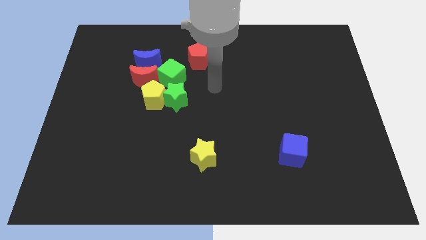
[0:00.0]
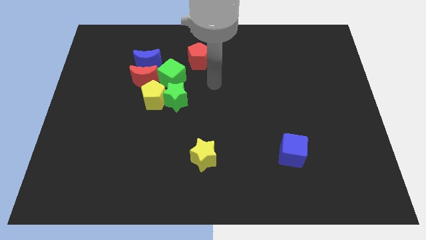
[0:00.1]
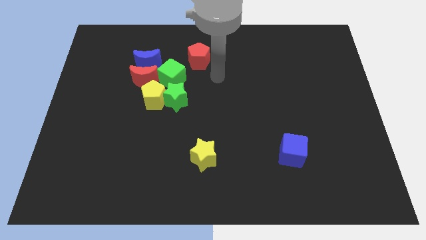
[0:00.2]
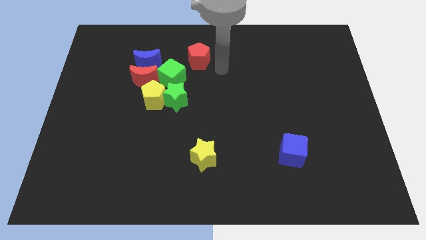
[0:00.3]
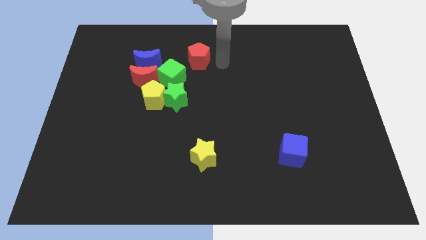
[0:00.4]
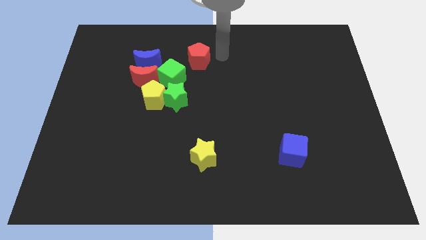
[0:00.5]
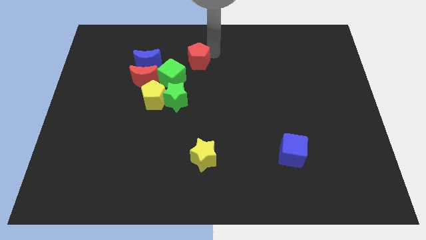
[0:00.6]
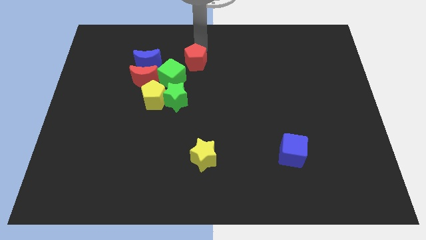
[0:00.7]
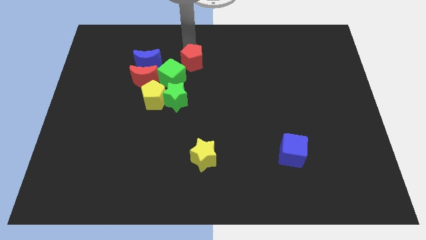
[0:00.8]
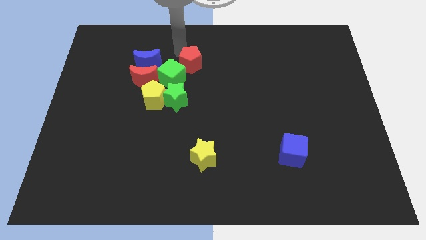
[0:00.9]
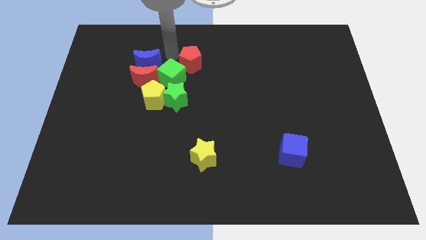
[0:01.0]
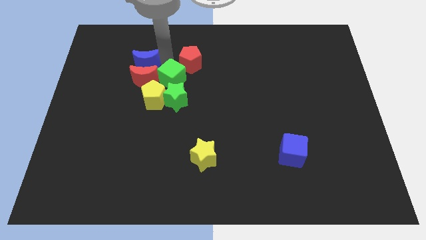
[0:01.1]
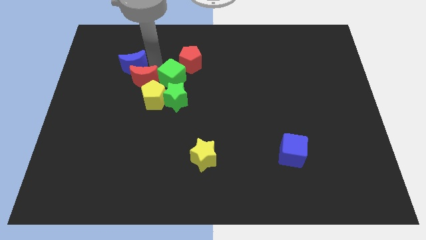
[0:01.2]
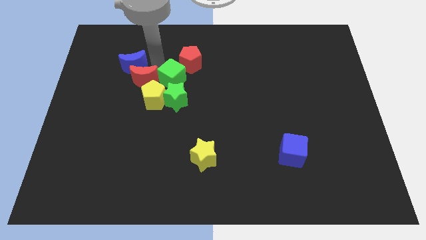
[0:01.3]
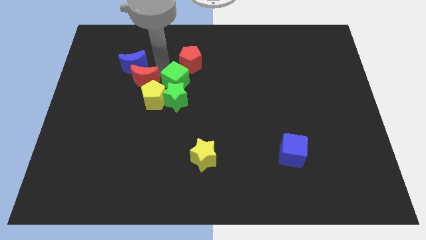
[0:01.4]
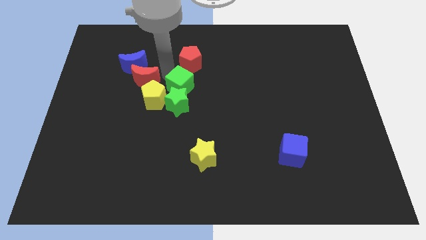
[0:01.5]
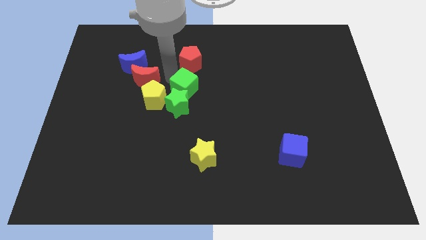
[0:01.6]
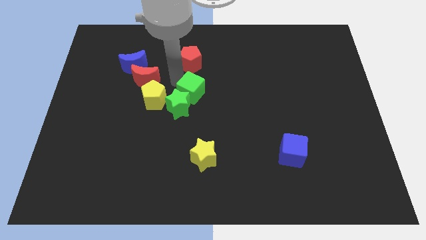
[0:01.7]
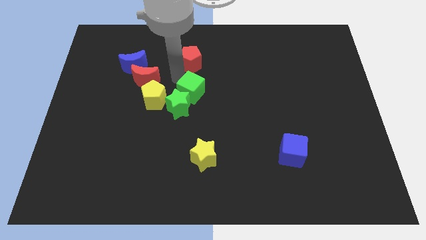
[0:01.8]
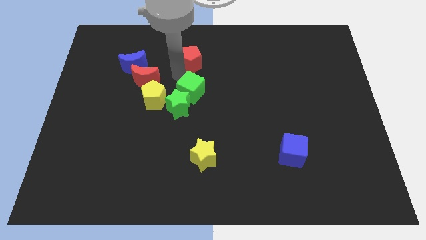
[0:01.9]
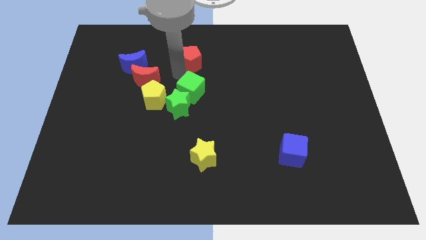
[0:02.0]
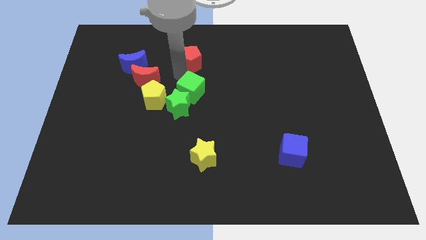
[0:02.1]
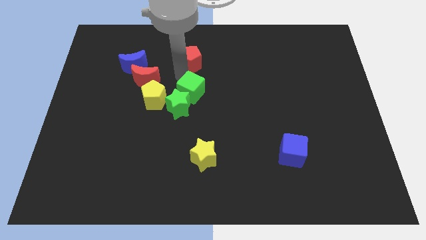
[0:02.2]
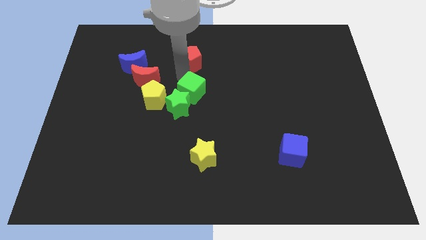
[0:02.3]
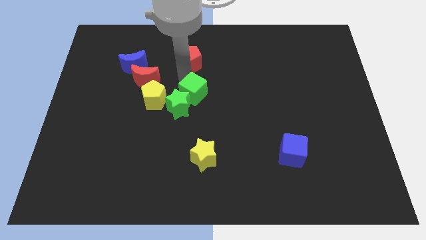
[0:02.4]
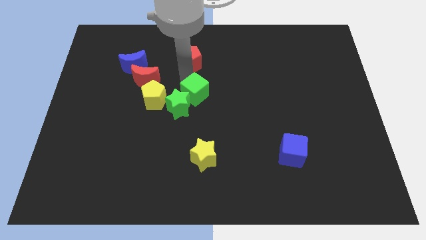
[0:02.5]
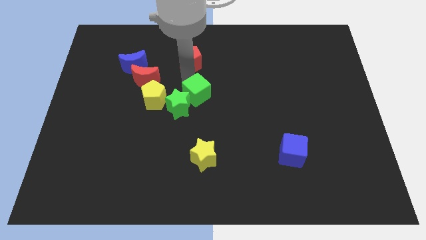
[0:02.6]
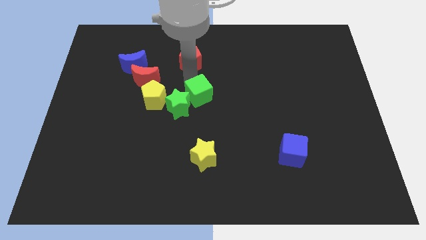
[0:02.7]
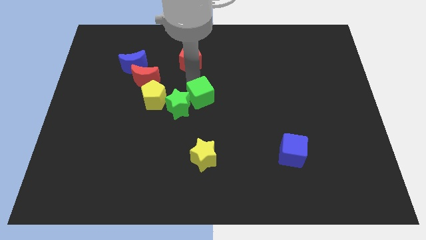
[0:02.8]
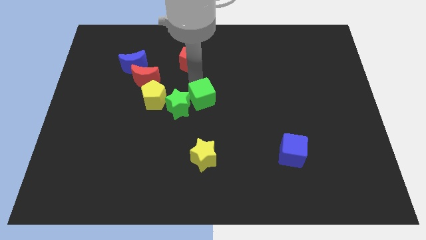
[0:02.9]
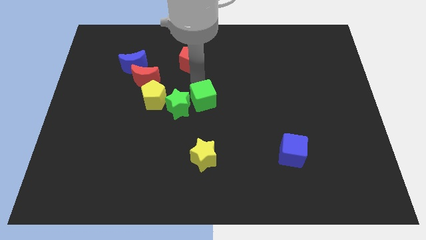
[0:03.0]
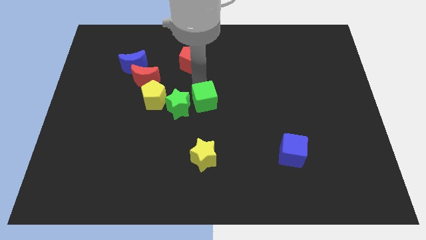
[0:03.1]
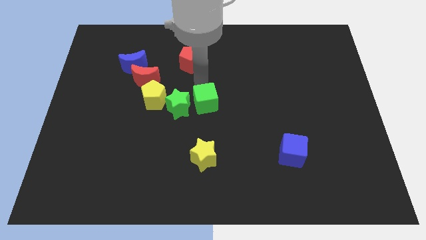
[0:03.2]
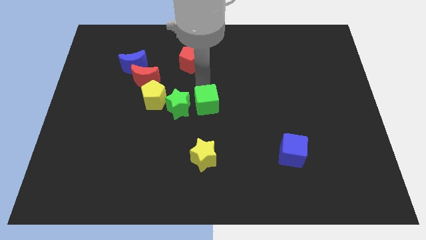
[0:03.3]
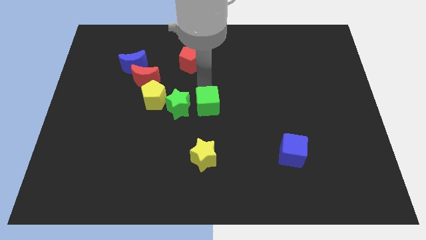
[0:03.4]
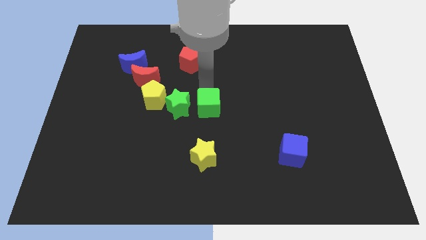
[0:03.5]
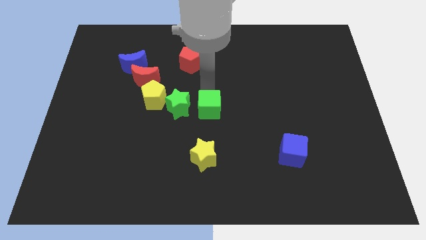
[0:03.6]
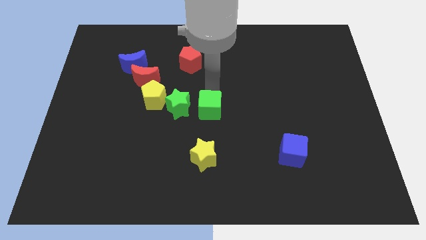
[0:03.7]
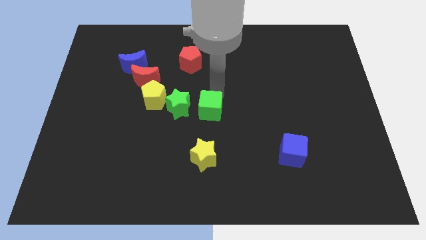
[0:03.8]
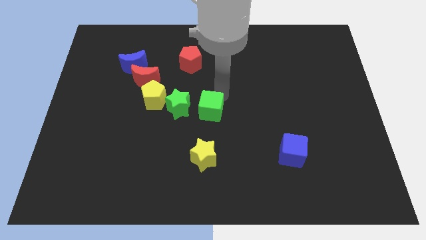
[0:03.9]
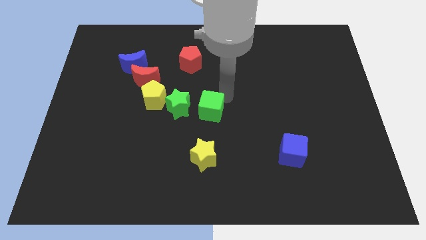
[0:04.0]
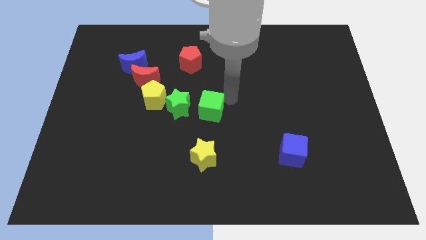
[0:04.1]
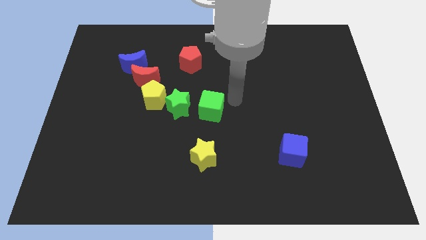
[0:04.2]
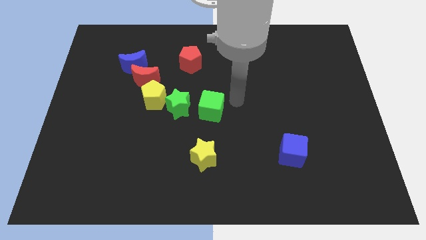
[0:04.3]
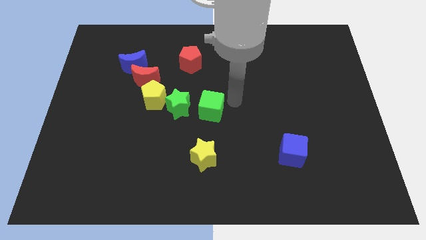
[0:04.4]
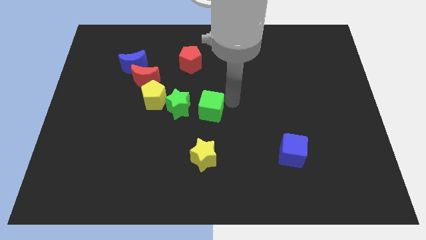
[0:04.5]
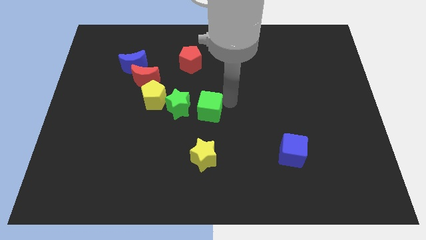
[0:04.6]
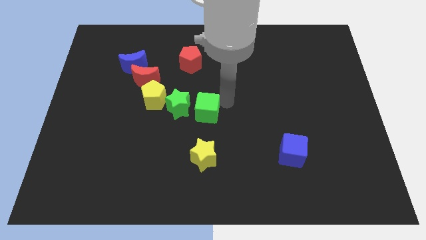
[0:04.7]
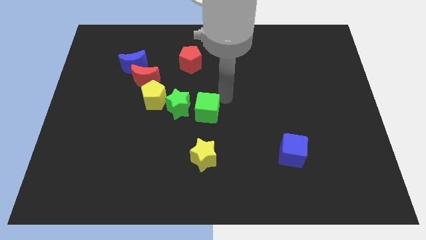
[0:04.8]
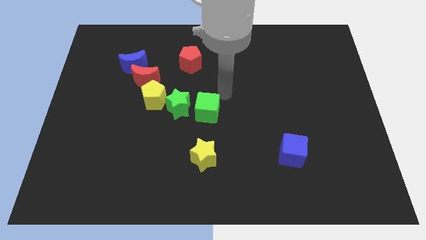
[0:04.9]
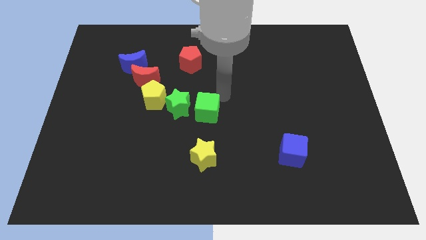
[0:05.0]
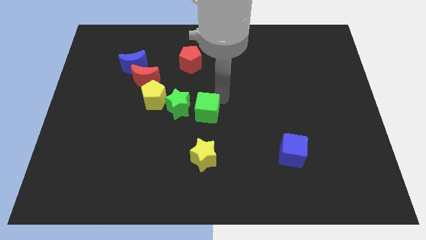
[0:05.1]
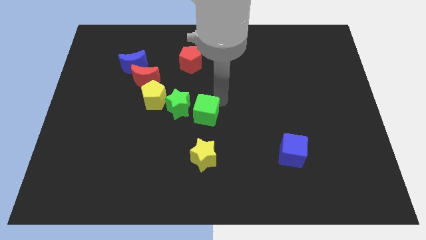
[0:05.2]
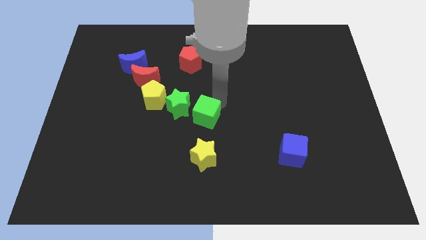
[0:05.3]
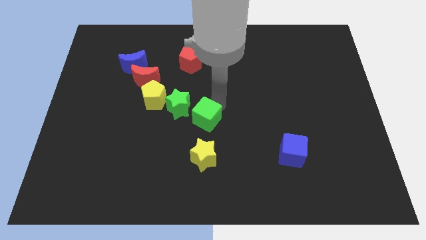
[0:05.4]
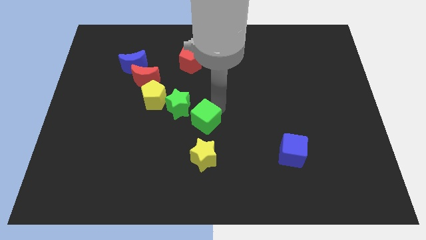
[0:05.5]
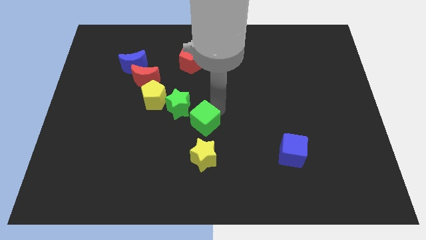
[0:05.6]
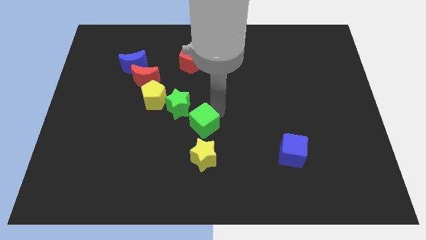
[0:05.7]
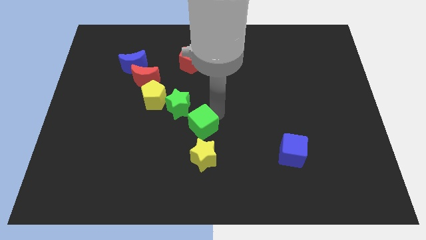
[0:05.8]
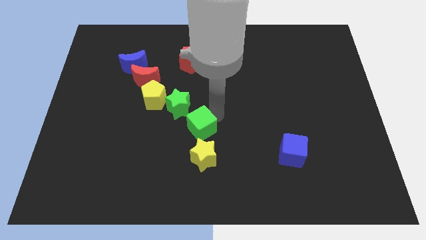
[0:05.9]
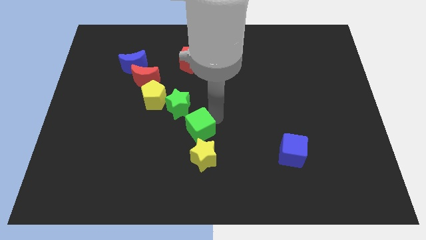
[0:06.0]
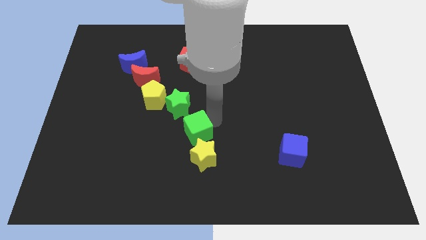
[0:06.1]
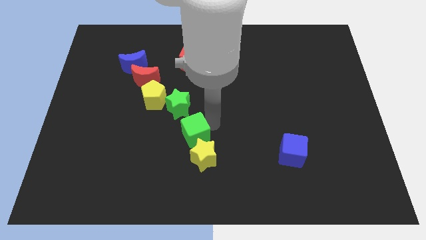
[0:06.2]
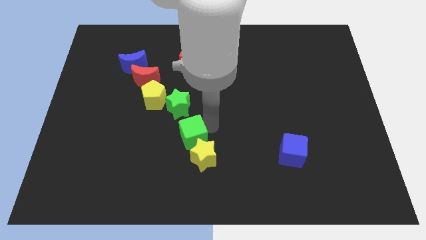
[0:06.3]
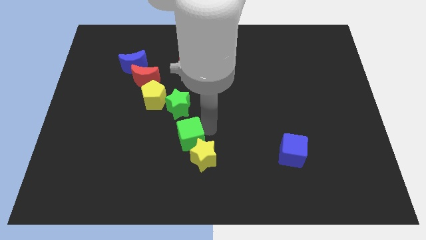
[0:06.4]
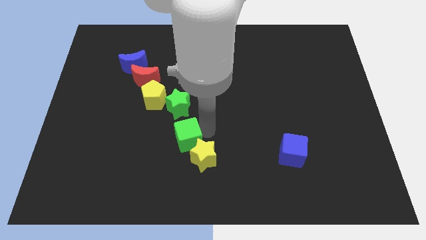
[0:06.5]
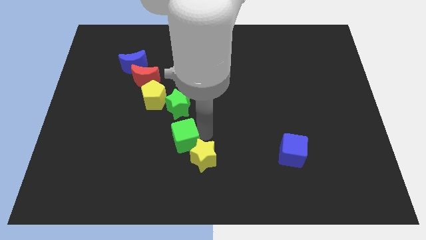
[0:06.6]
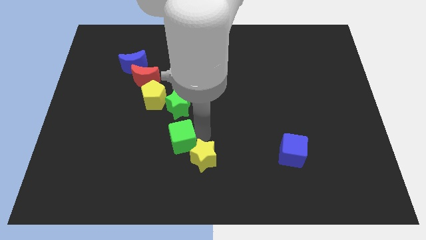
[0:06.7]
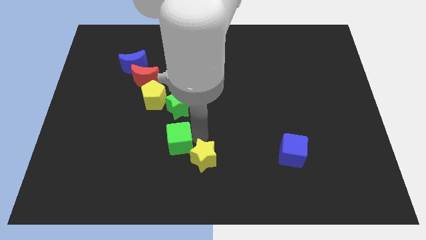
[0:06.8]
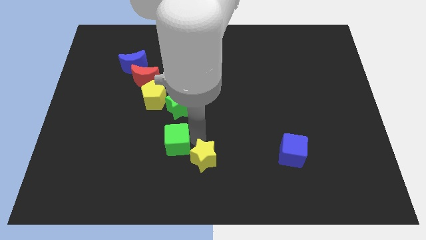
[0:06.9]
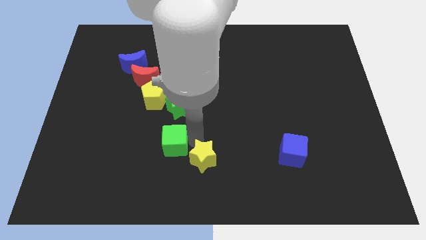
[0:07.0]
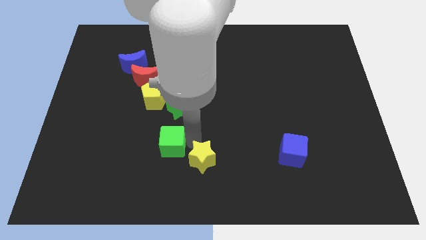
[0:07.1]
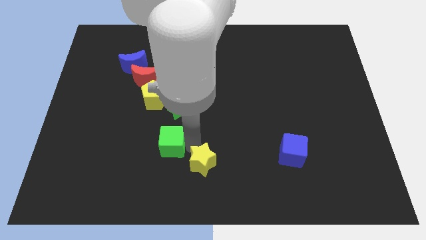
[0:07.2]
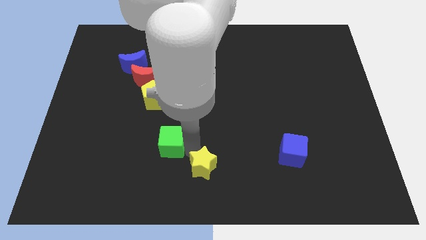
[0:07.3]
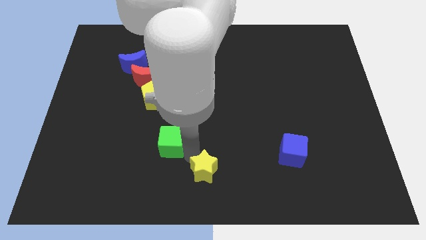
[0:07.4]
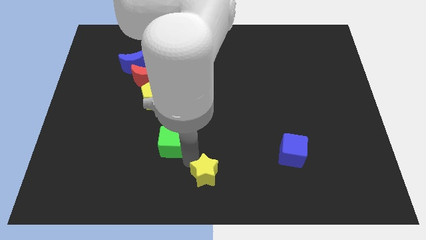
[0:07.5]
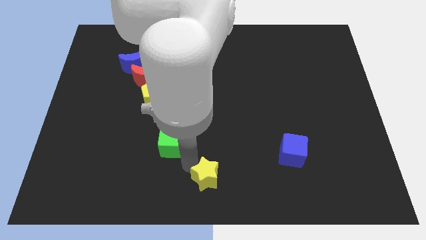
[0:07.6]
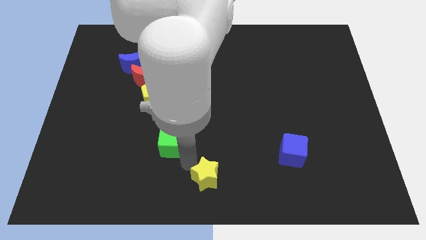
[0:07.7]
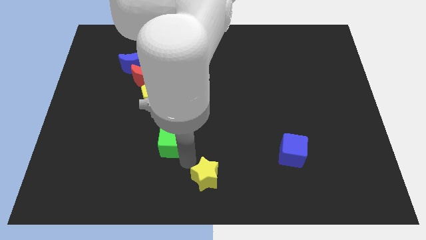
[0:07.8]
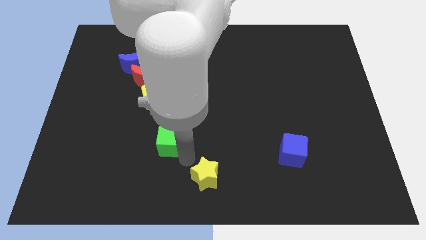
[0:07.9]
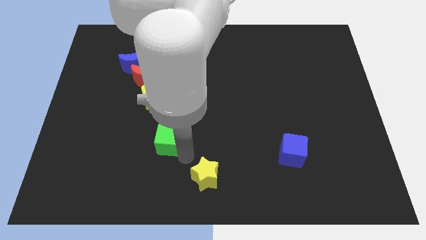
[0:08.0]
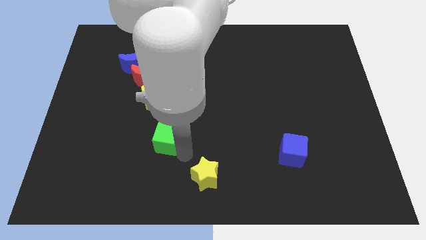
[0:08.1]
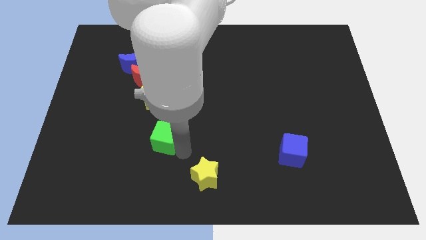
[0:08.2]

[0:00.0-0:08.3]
slide the green cube to the bottom left of the green star
